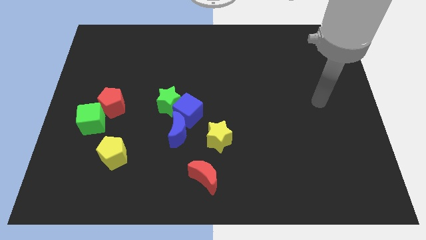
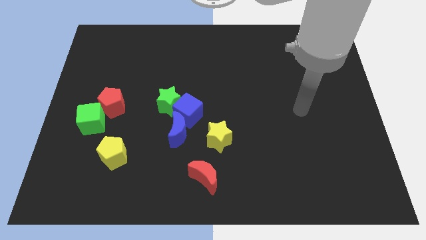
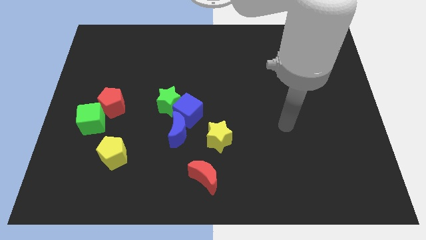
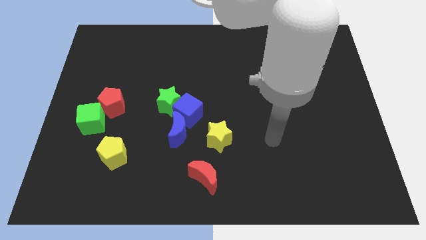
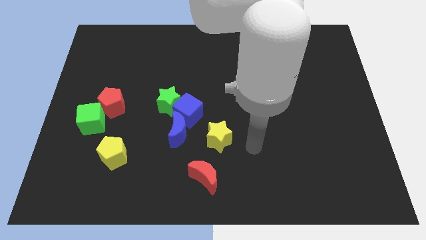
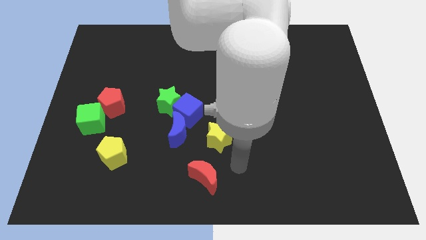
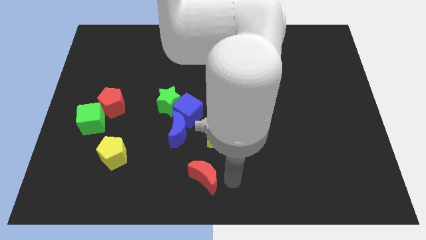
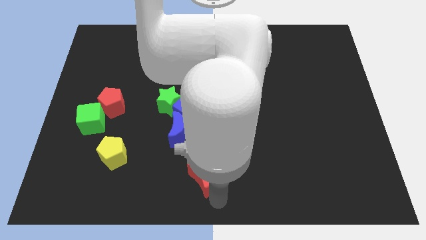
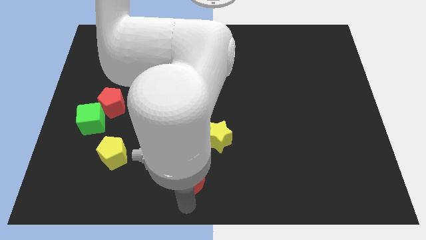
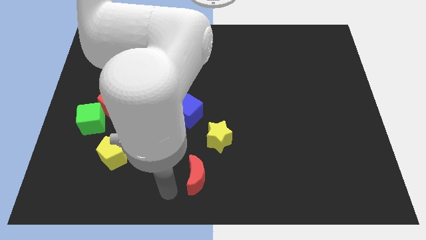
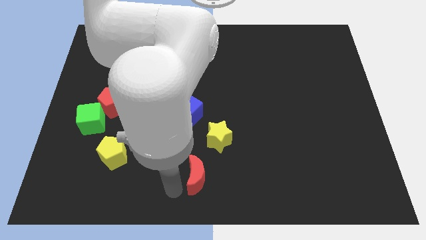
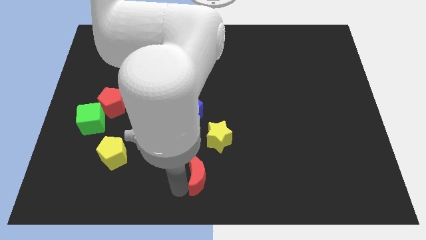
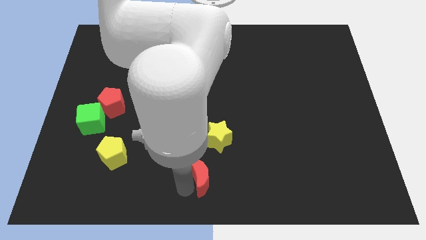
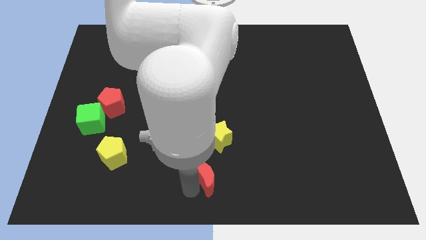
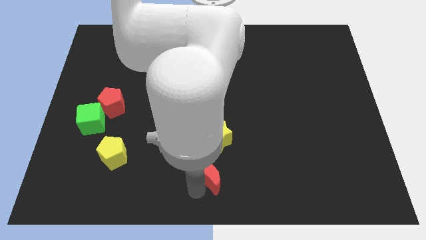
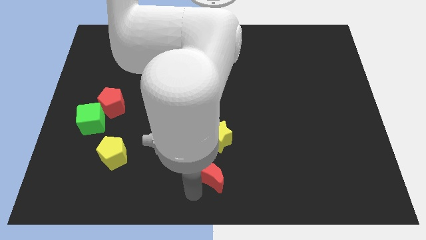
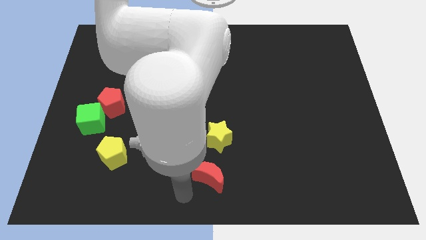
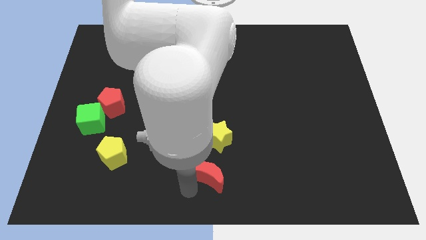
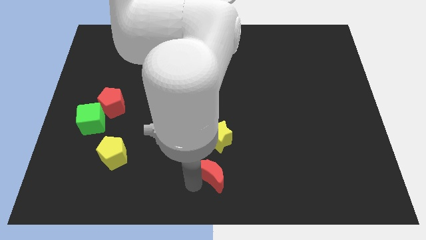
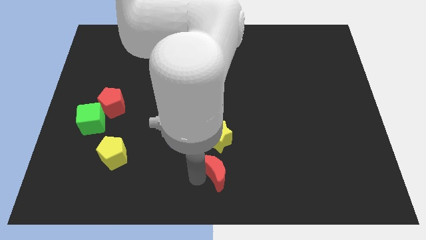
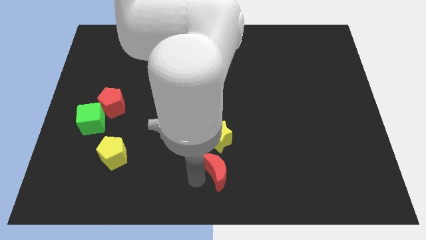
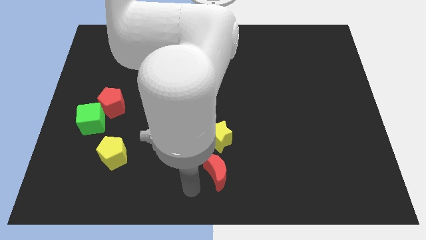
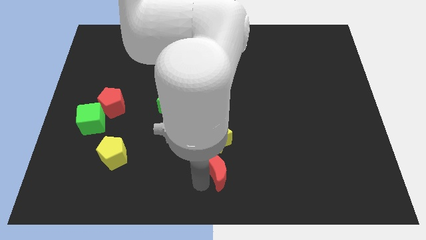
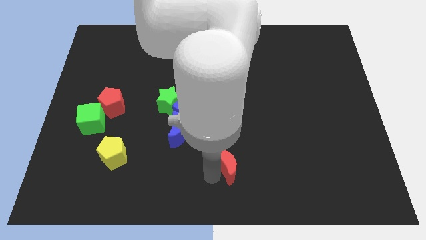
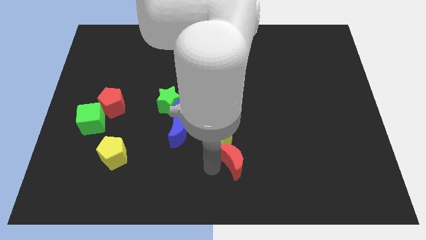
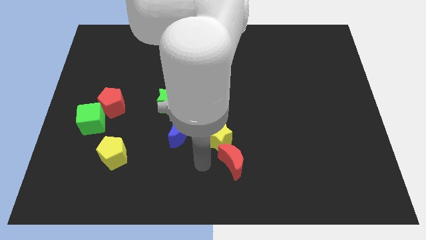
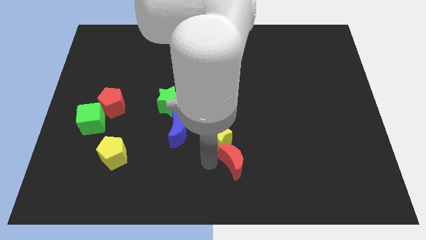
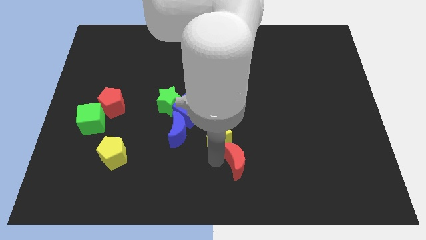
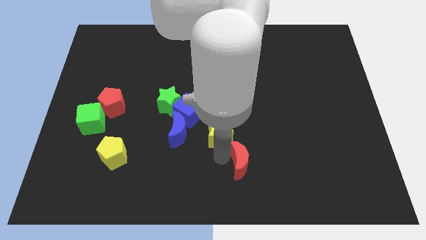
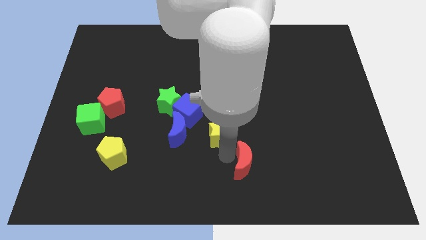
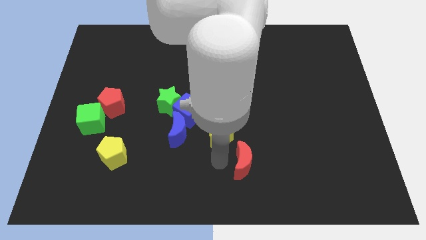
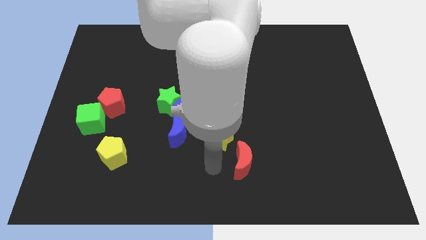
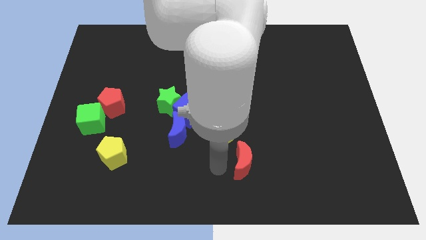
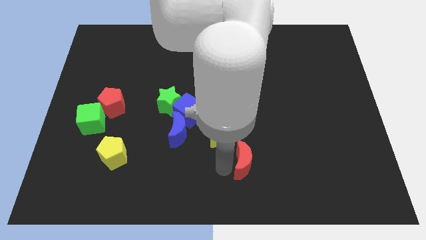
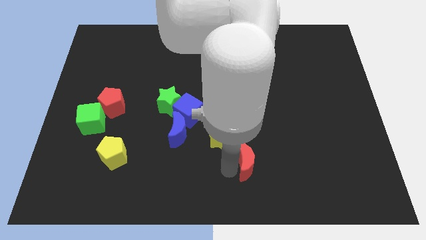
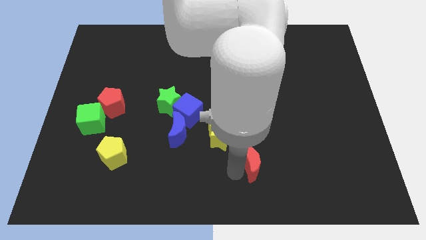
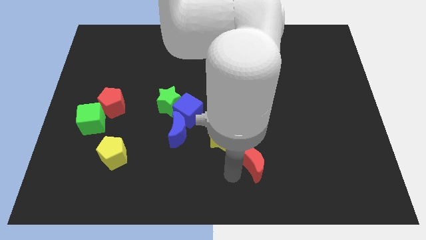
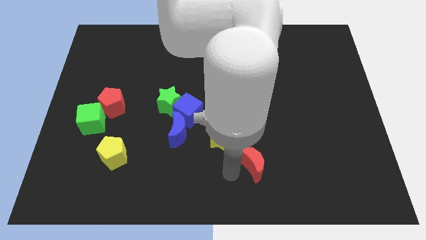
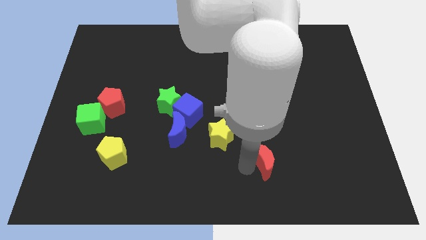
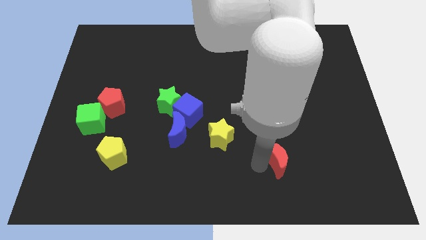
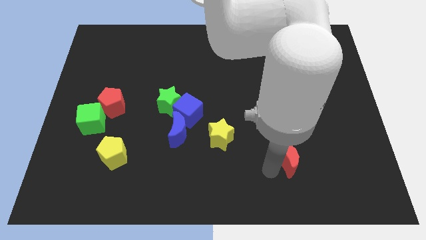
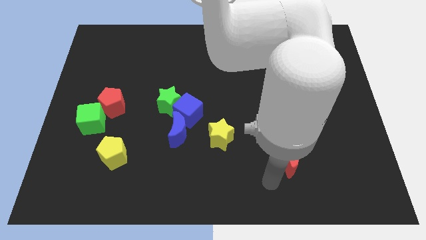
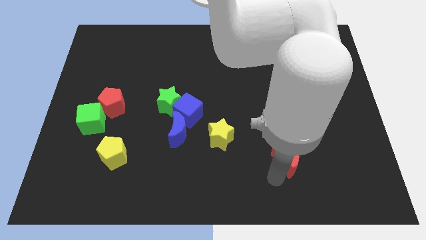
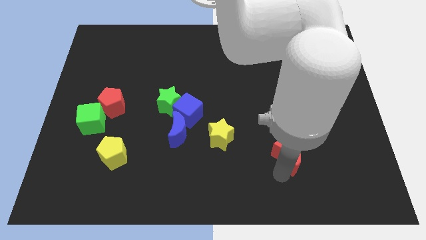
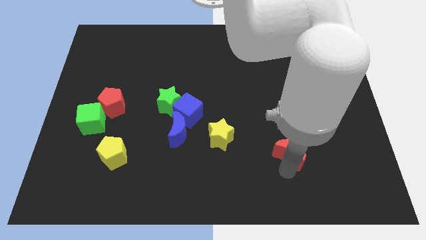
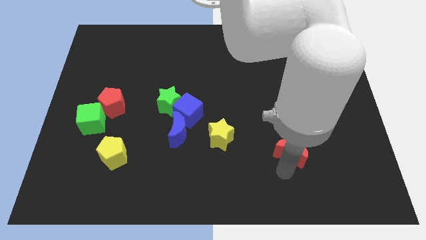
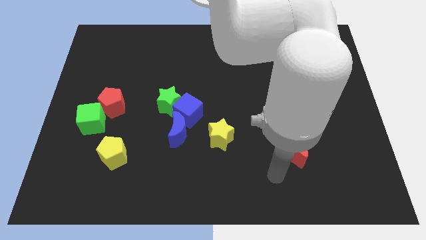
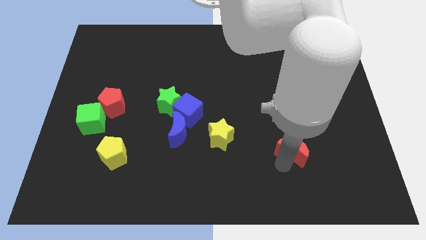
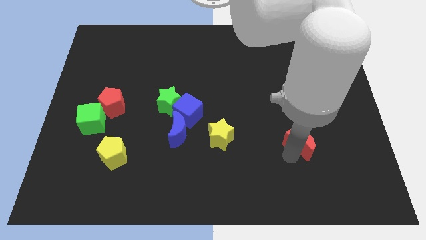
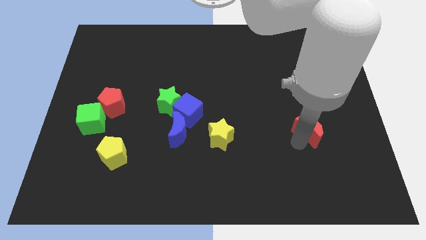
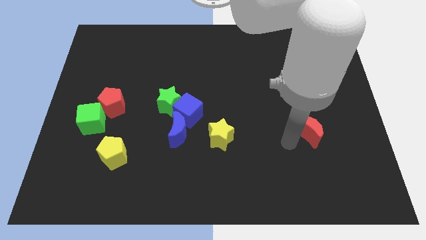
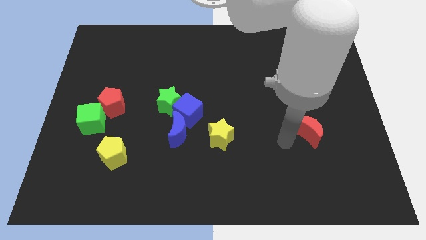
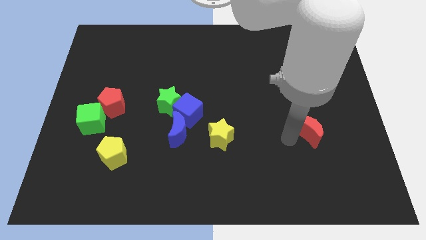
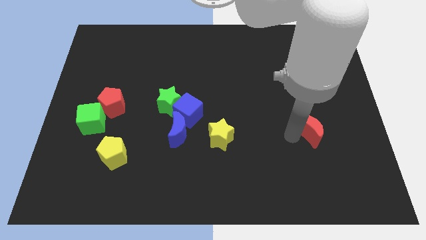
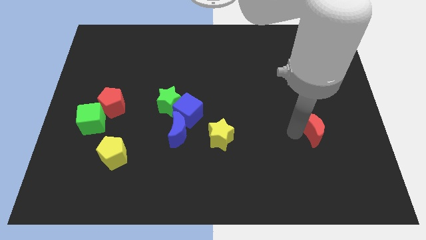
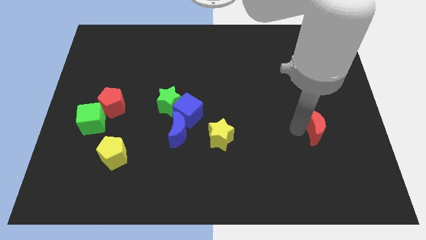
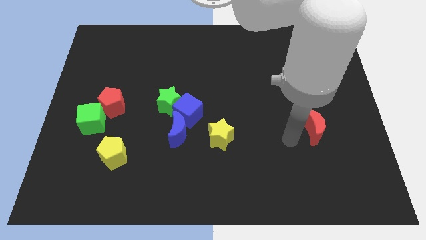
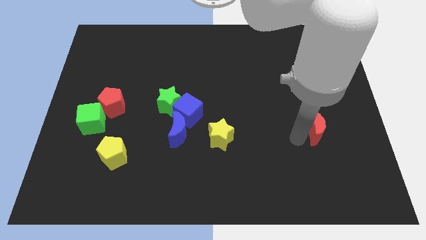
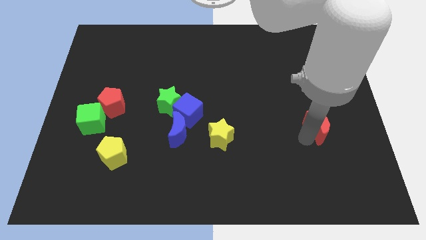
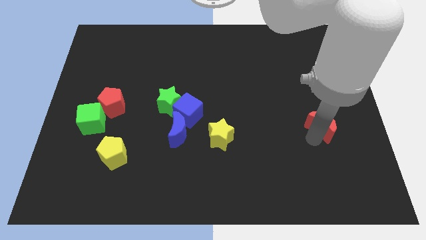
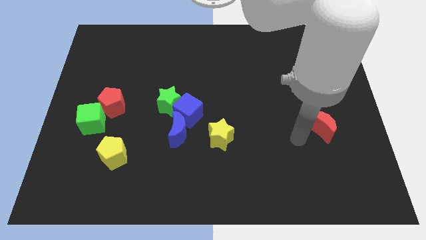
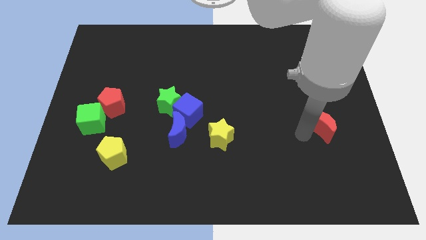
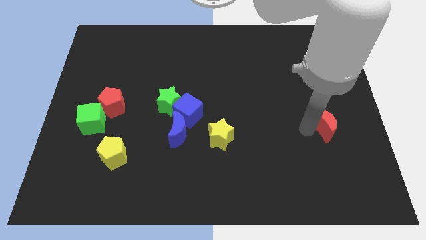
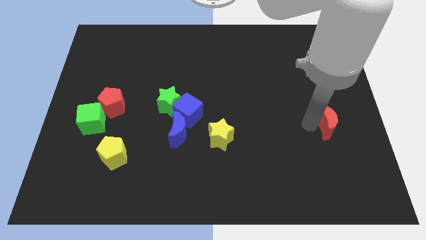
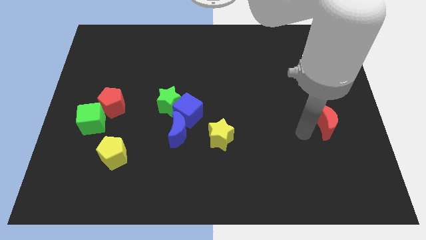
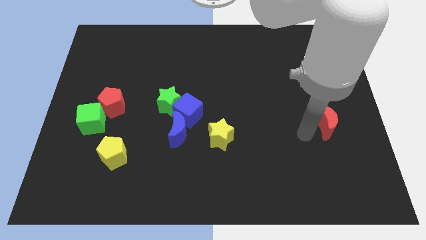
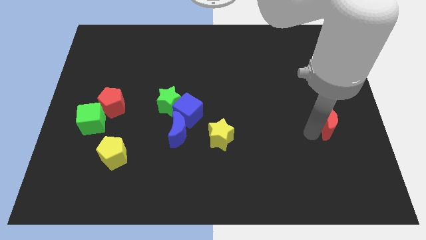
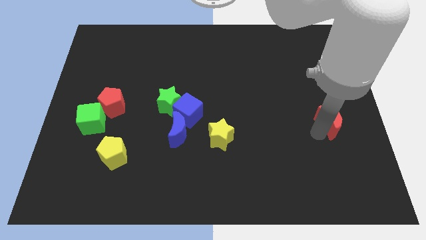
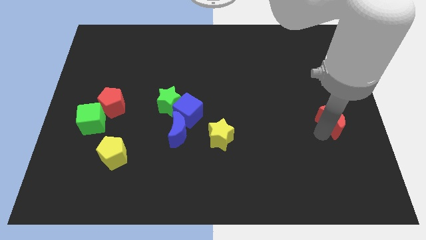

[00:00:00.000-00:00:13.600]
slide the red moon to the right side of the board

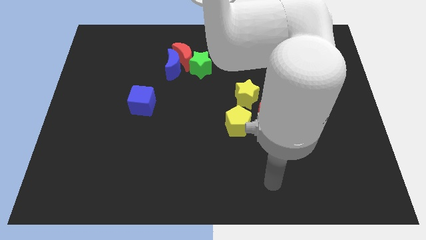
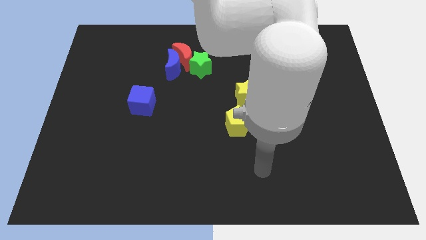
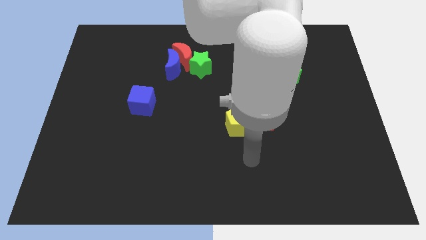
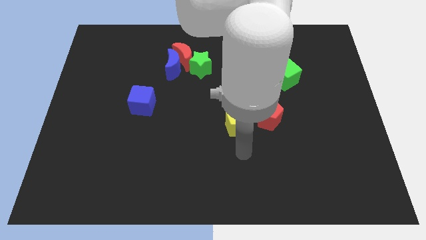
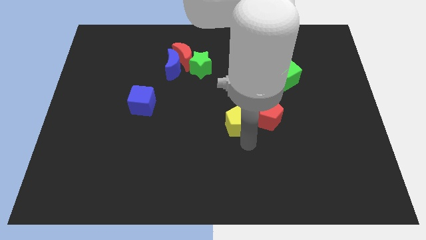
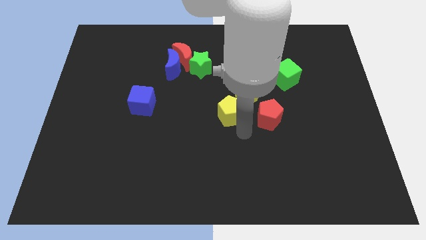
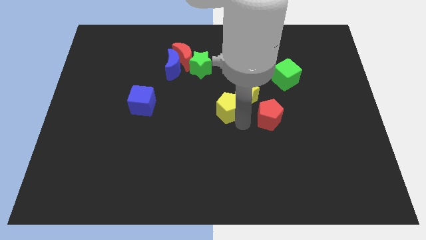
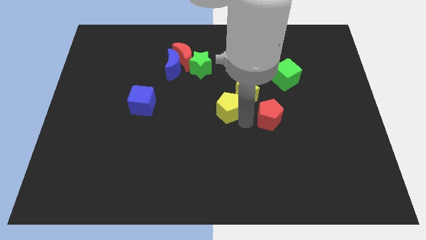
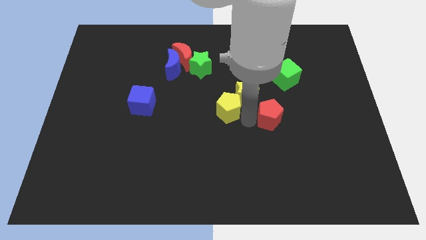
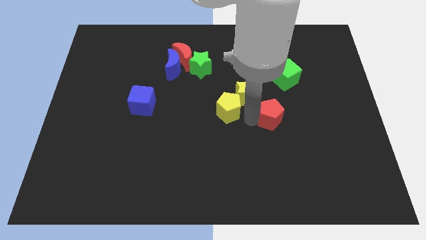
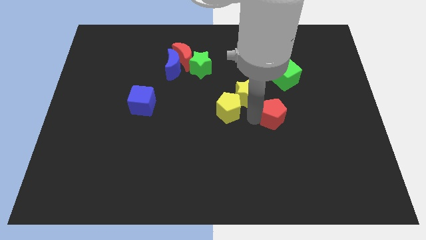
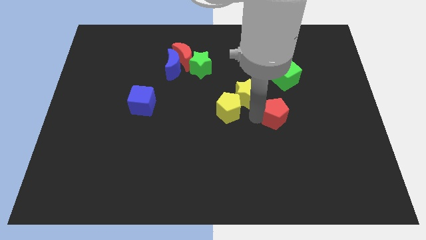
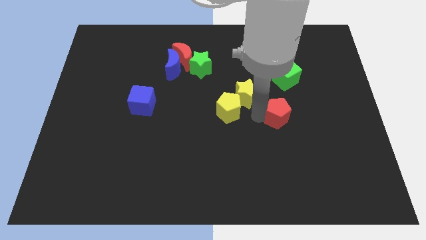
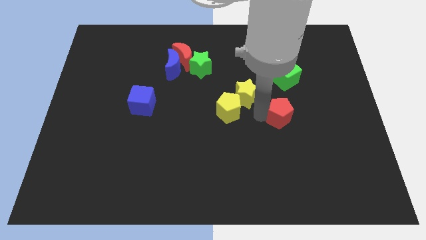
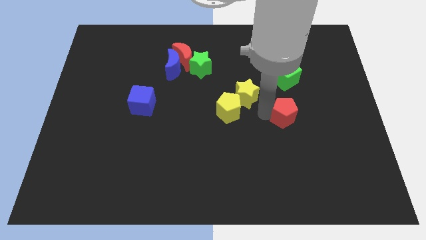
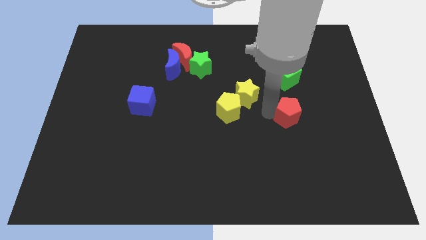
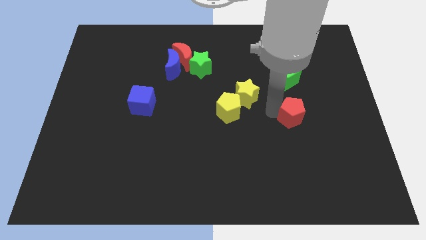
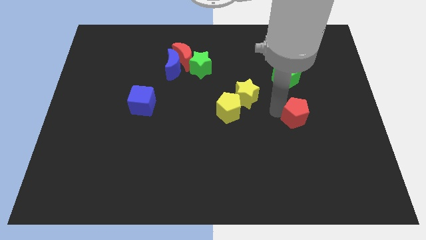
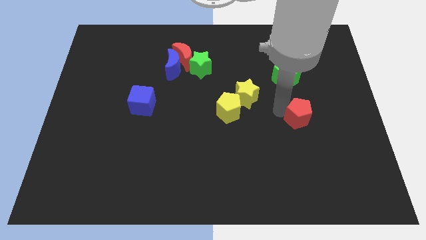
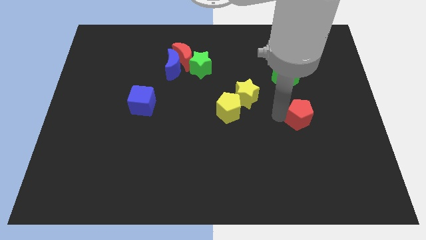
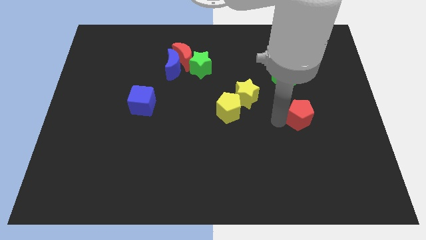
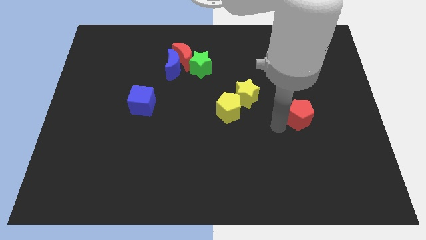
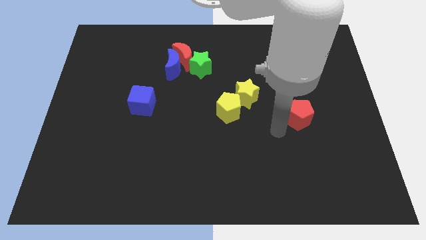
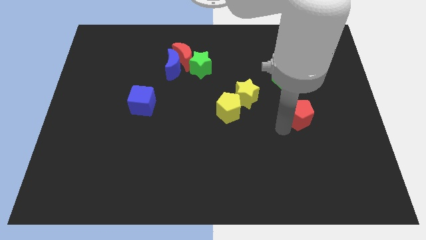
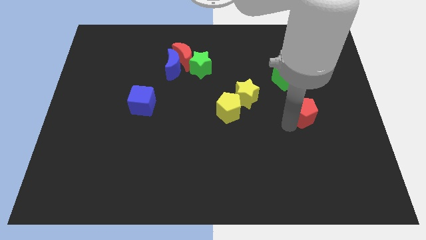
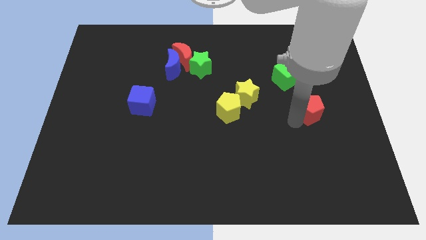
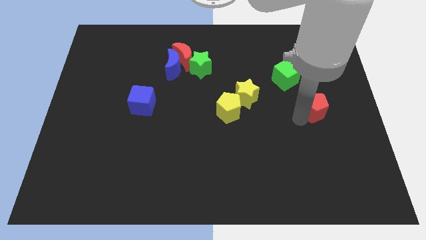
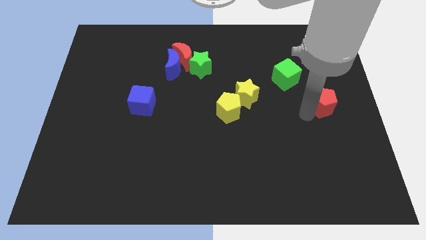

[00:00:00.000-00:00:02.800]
put the red pentagon to the center right
